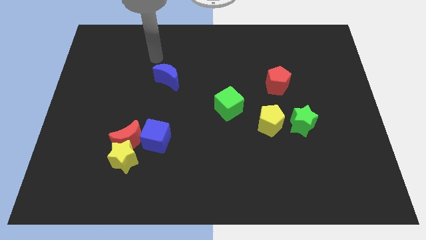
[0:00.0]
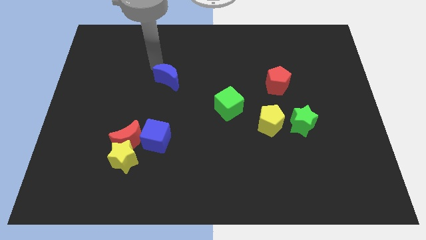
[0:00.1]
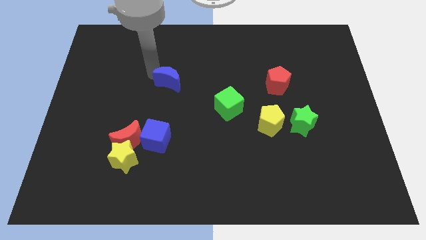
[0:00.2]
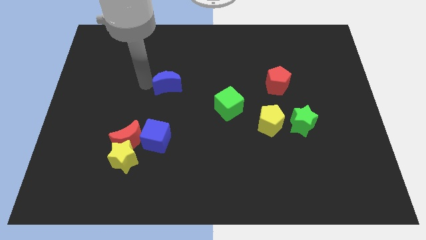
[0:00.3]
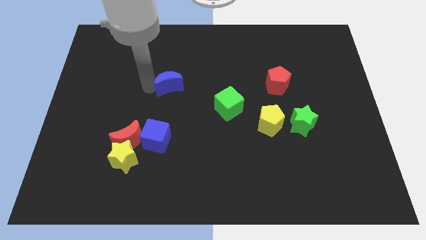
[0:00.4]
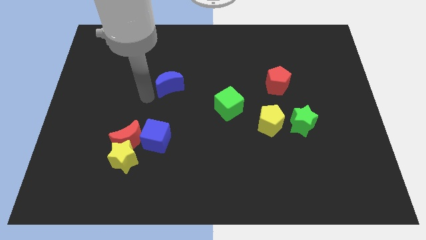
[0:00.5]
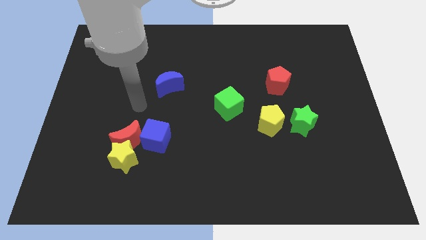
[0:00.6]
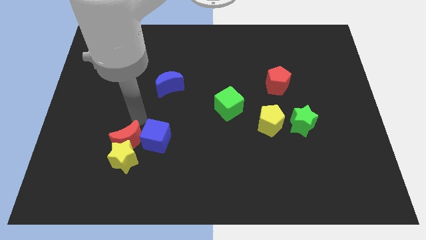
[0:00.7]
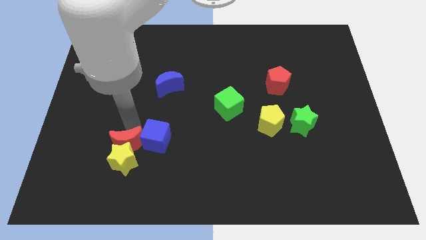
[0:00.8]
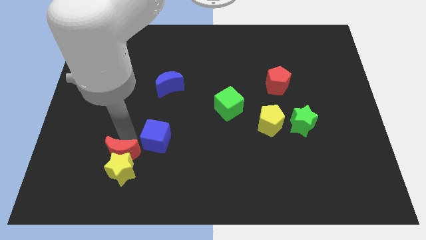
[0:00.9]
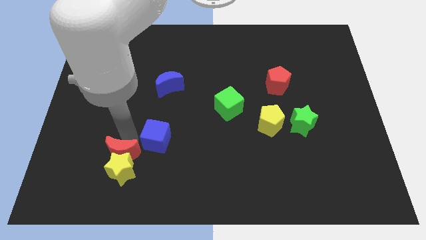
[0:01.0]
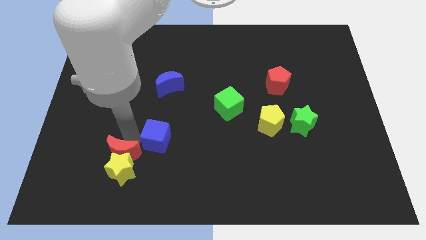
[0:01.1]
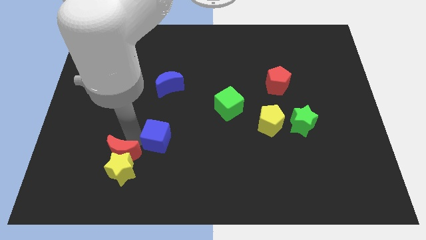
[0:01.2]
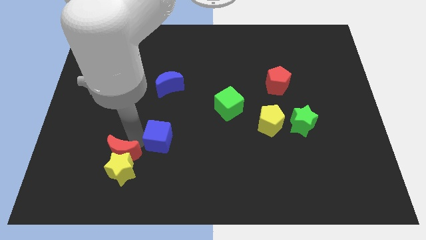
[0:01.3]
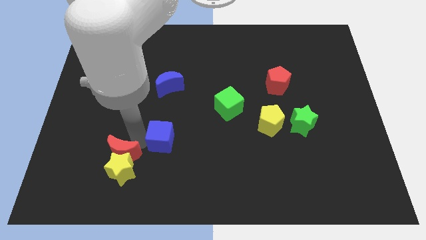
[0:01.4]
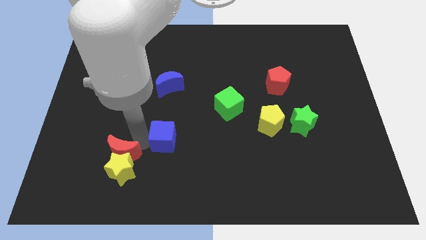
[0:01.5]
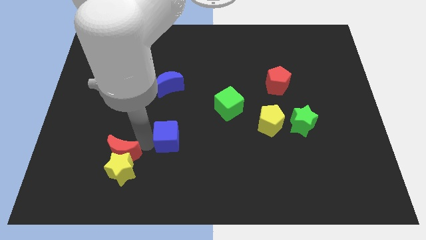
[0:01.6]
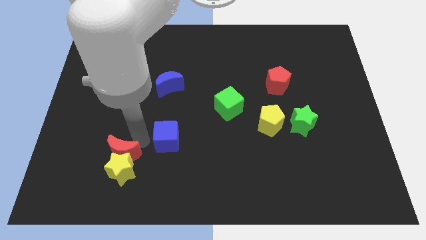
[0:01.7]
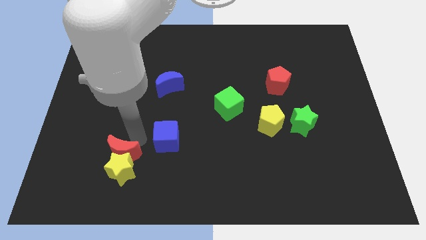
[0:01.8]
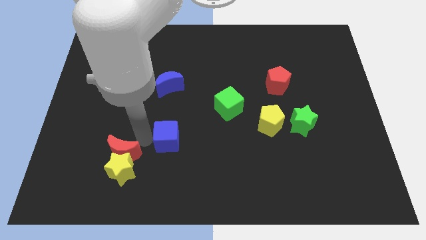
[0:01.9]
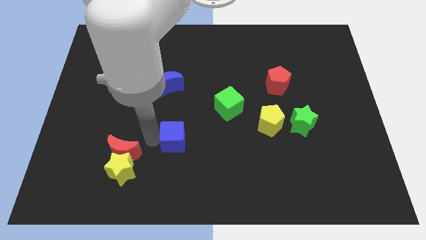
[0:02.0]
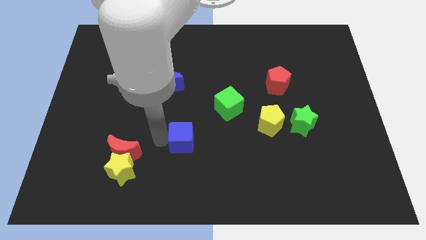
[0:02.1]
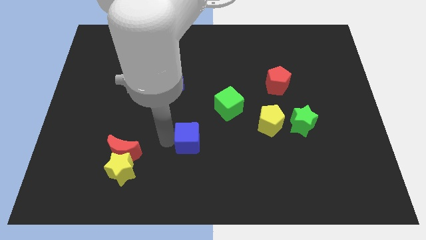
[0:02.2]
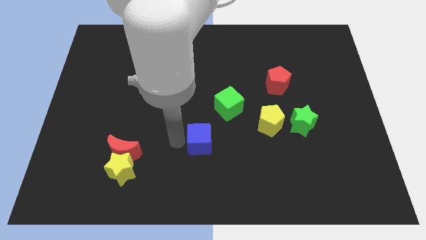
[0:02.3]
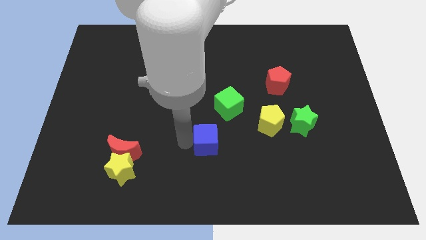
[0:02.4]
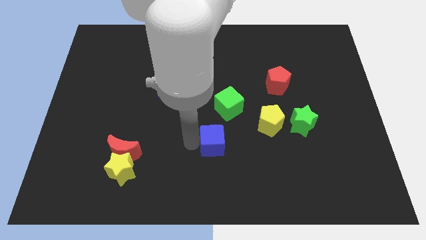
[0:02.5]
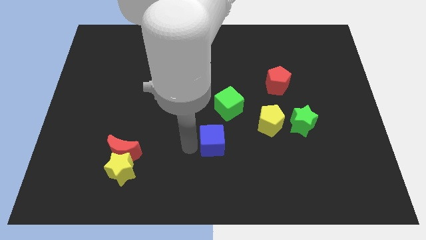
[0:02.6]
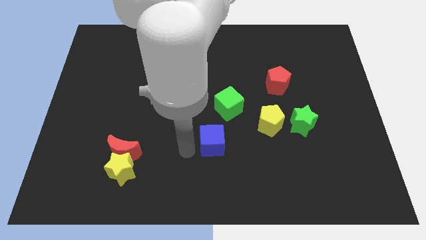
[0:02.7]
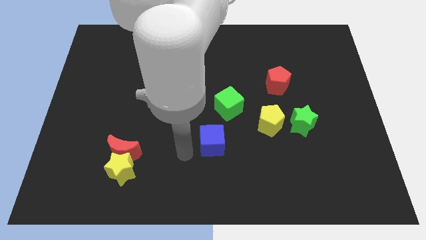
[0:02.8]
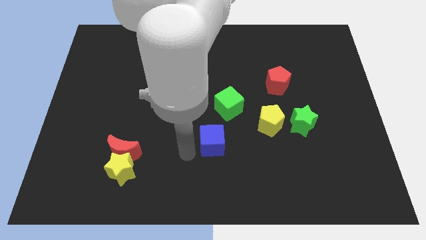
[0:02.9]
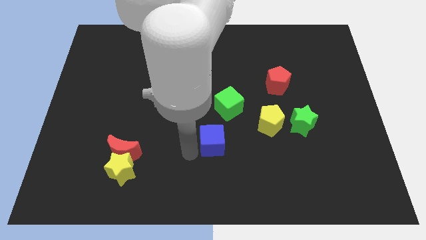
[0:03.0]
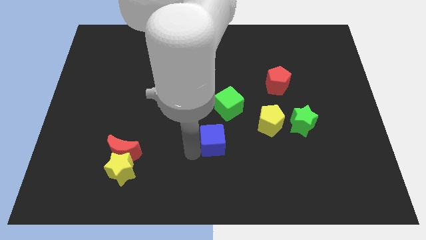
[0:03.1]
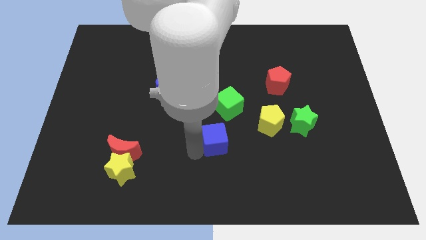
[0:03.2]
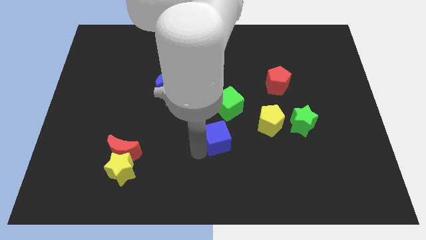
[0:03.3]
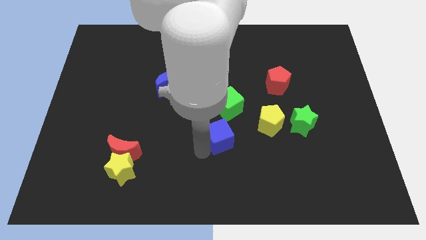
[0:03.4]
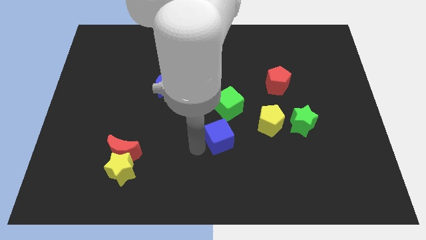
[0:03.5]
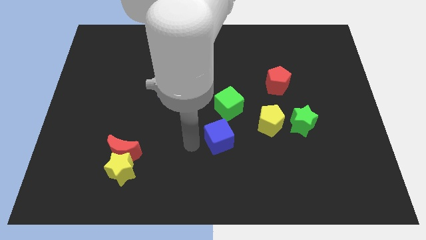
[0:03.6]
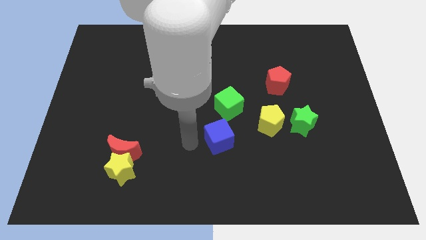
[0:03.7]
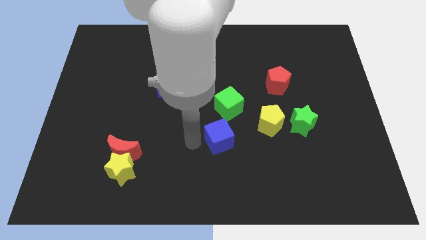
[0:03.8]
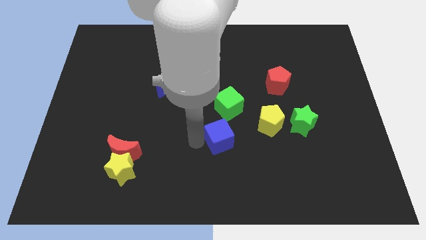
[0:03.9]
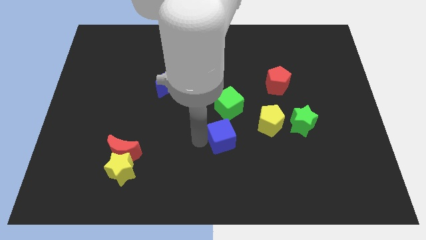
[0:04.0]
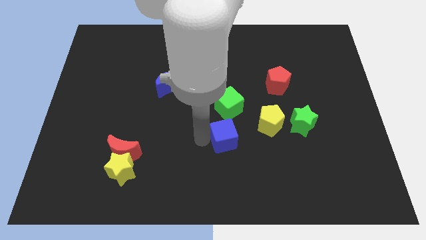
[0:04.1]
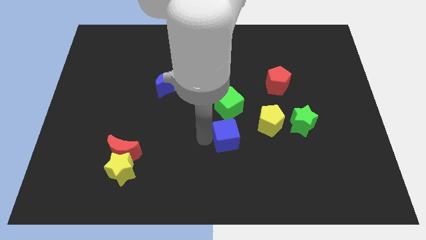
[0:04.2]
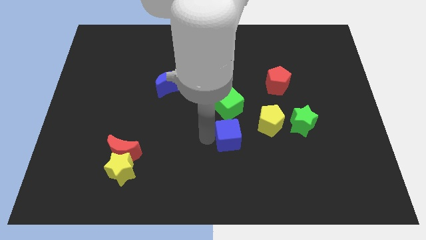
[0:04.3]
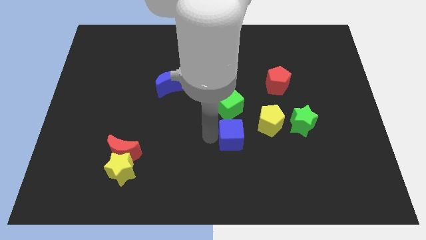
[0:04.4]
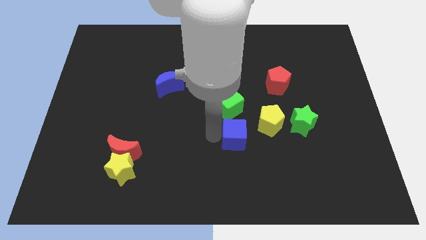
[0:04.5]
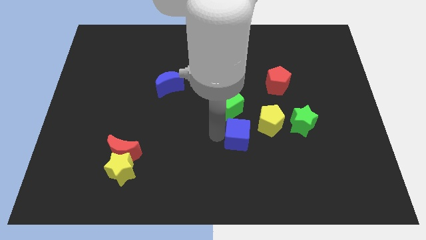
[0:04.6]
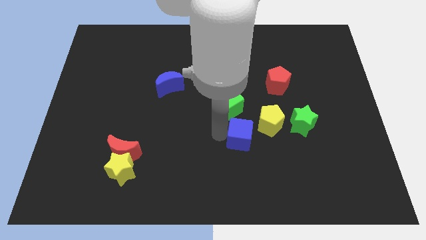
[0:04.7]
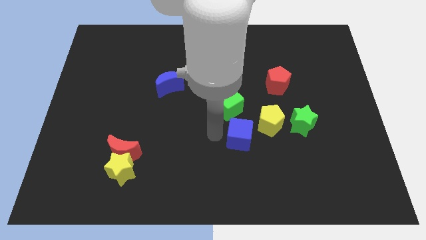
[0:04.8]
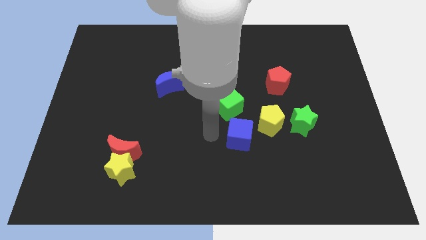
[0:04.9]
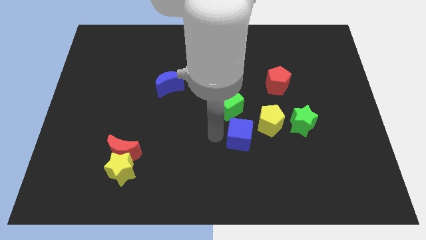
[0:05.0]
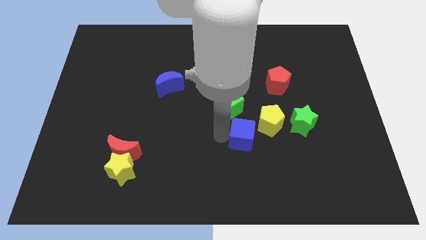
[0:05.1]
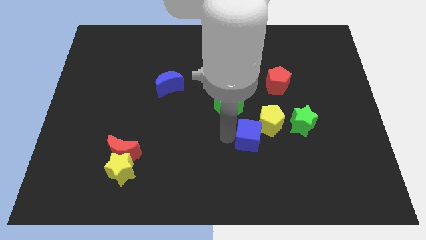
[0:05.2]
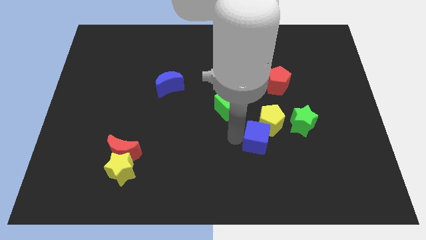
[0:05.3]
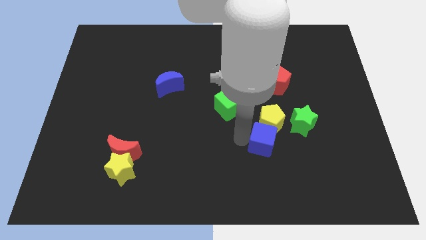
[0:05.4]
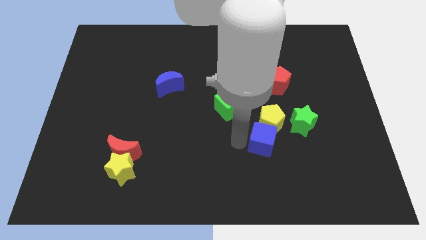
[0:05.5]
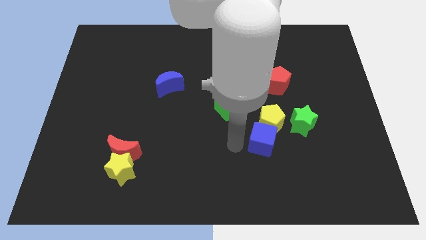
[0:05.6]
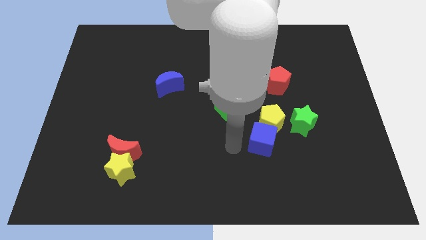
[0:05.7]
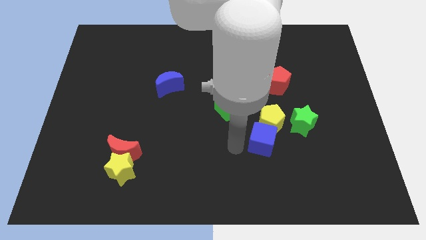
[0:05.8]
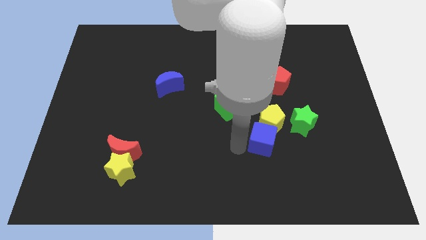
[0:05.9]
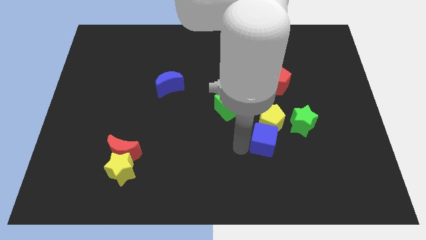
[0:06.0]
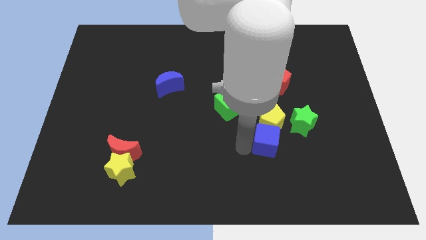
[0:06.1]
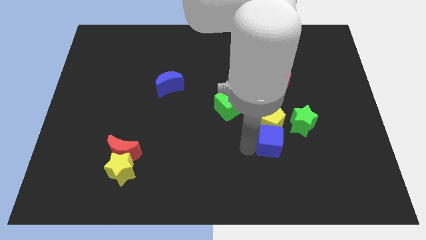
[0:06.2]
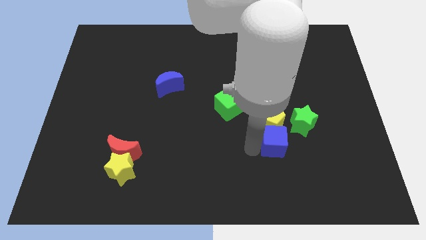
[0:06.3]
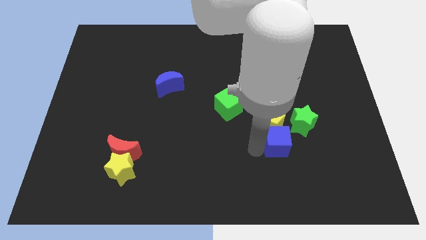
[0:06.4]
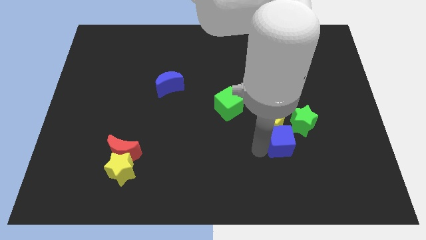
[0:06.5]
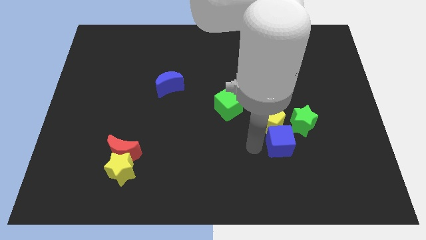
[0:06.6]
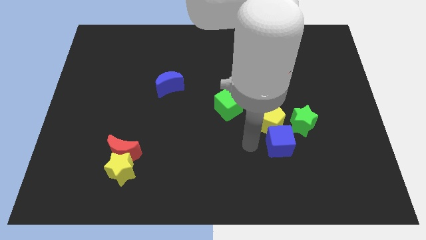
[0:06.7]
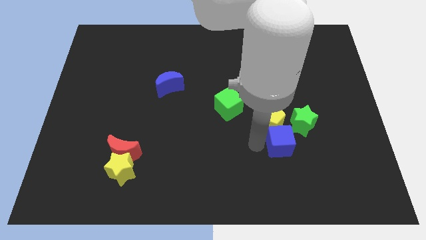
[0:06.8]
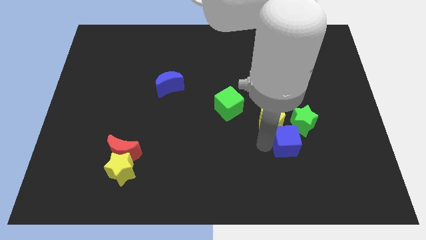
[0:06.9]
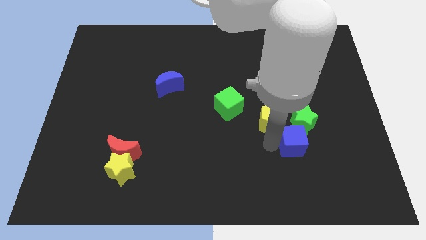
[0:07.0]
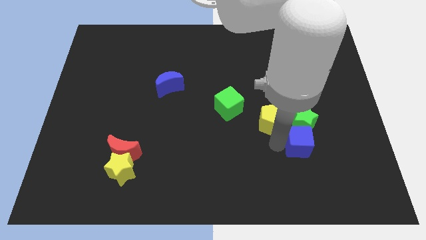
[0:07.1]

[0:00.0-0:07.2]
move the blue cube diagonally down and to the right of the green star
